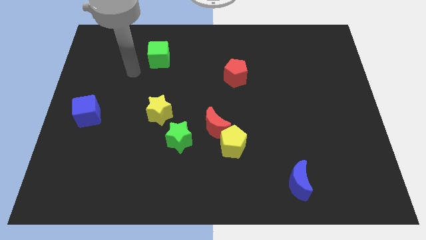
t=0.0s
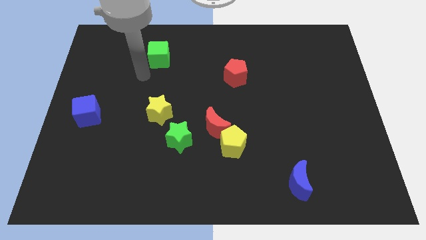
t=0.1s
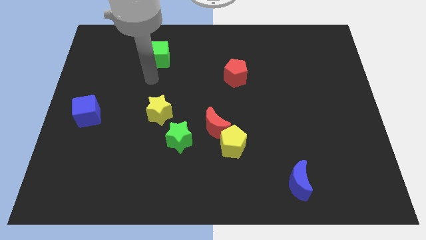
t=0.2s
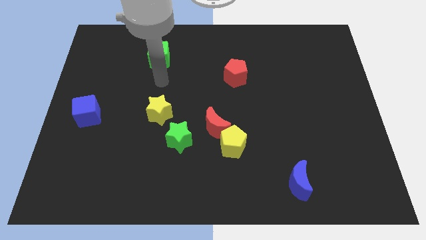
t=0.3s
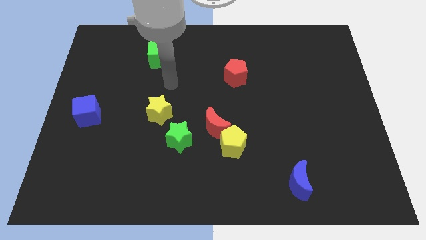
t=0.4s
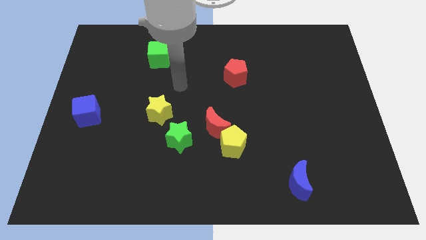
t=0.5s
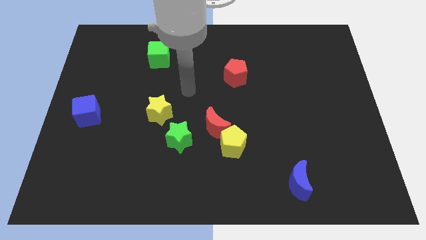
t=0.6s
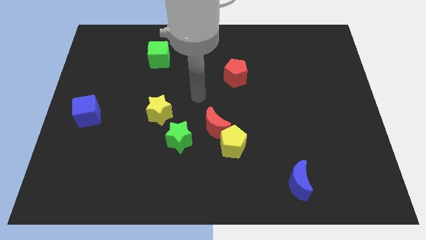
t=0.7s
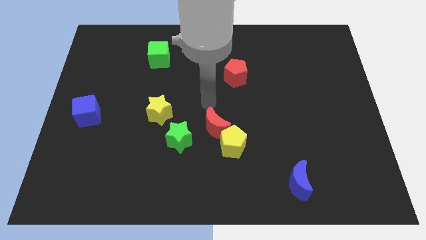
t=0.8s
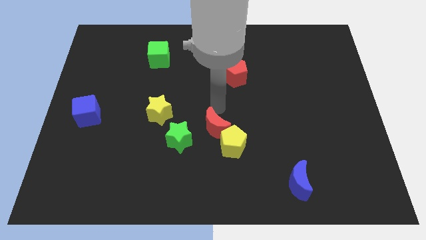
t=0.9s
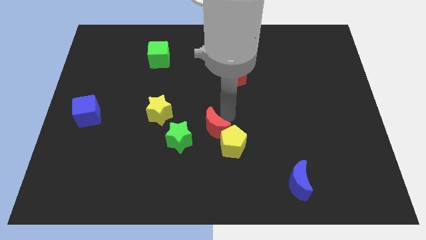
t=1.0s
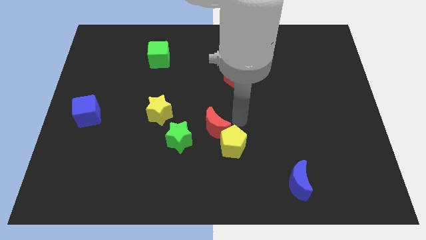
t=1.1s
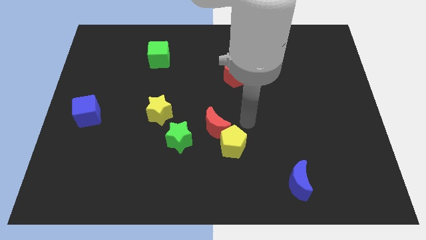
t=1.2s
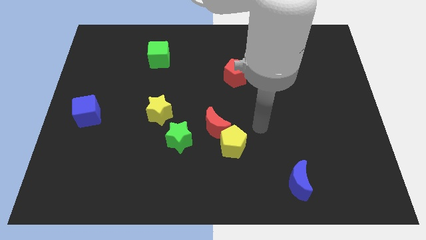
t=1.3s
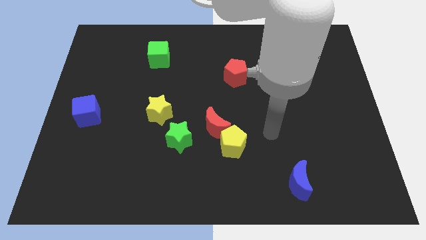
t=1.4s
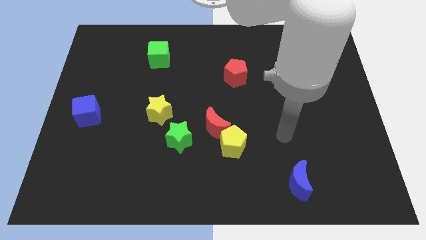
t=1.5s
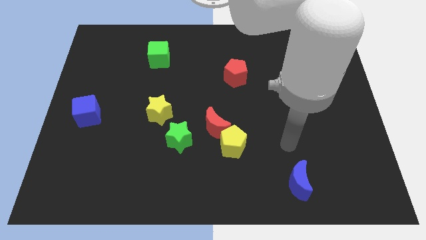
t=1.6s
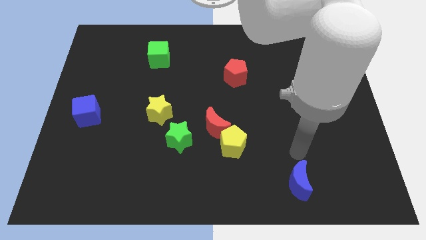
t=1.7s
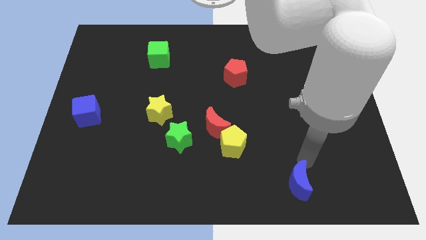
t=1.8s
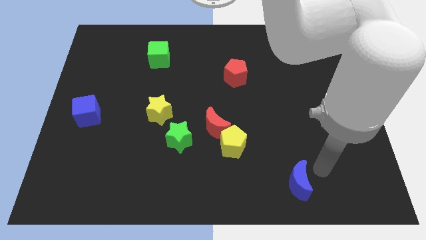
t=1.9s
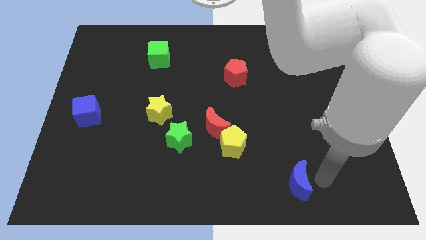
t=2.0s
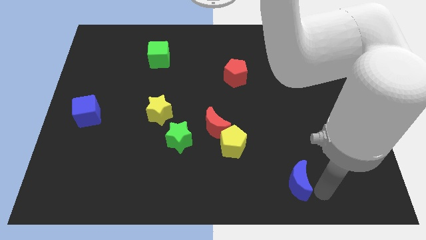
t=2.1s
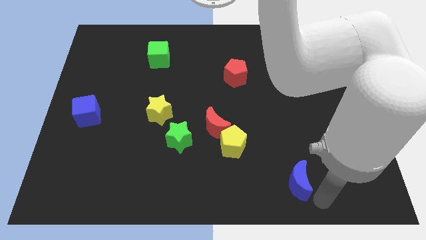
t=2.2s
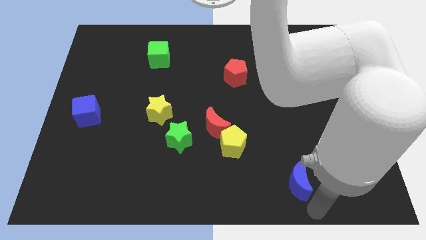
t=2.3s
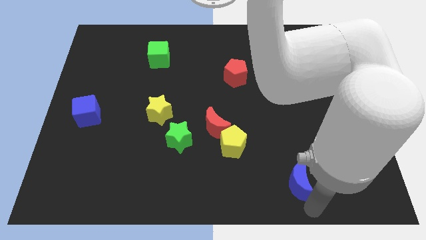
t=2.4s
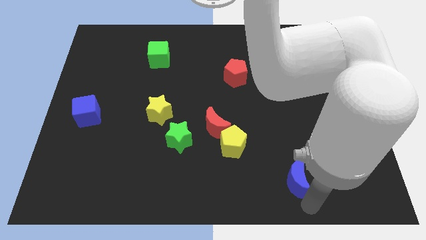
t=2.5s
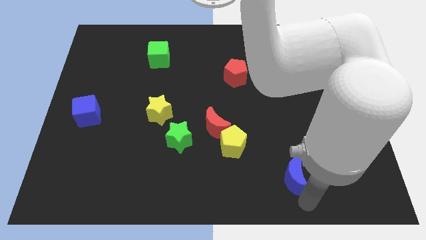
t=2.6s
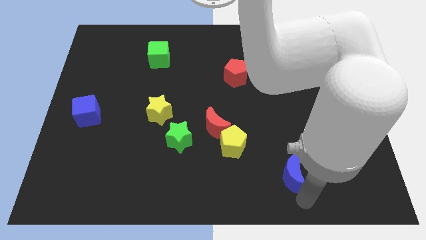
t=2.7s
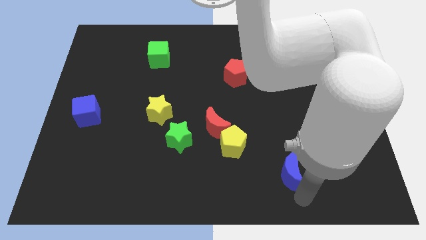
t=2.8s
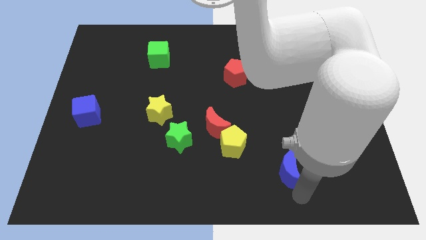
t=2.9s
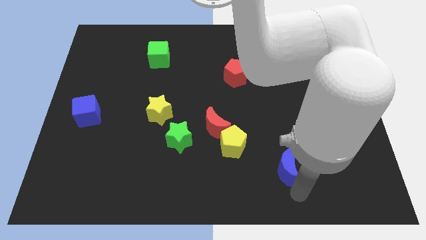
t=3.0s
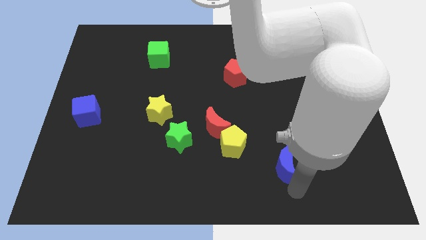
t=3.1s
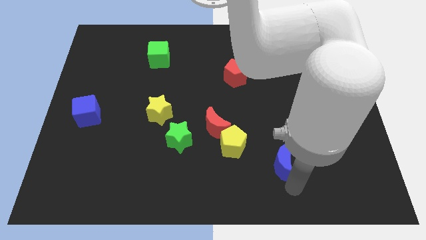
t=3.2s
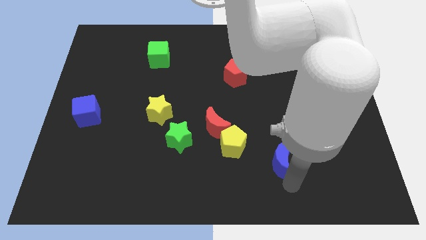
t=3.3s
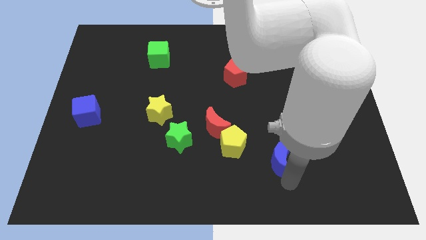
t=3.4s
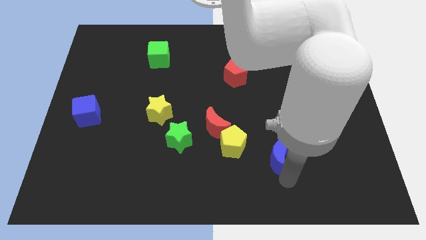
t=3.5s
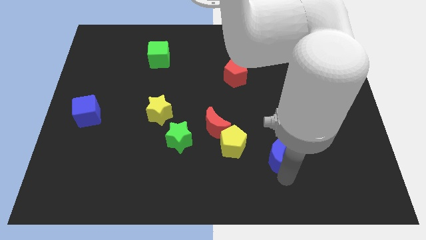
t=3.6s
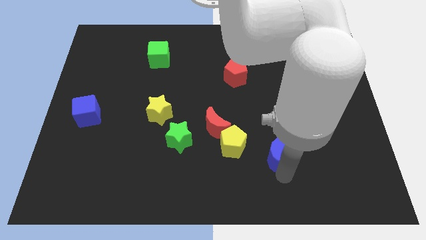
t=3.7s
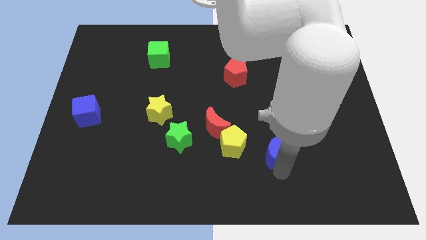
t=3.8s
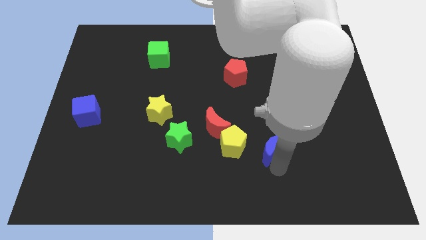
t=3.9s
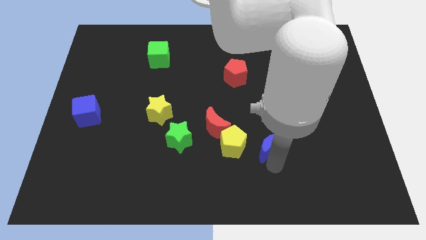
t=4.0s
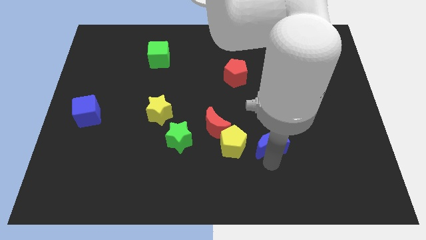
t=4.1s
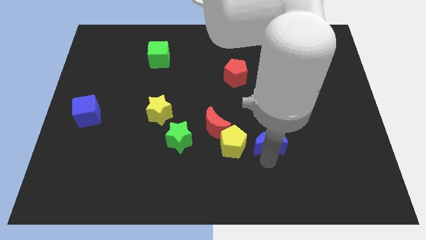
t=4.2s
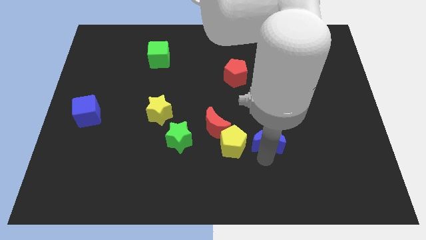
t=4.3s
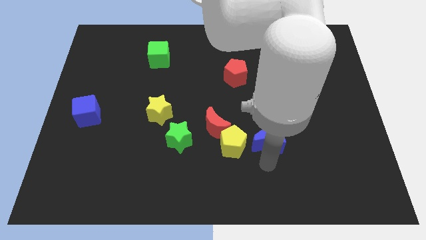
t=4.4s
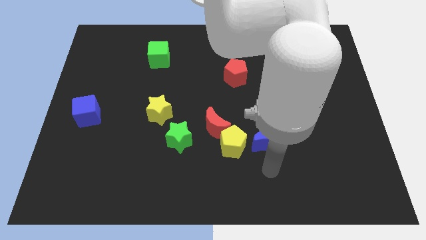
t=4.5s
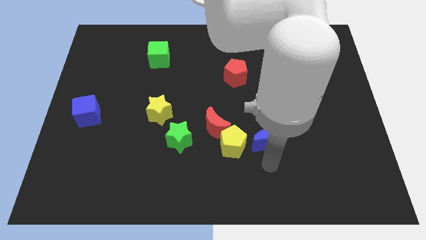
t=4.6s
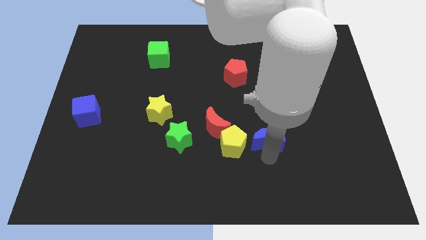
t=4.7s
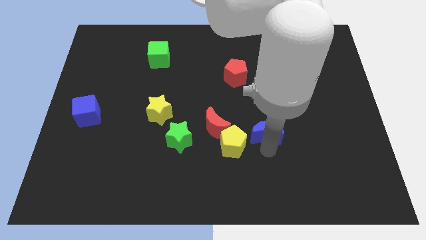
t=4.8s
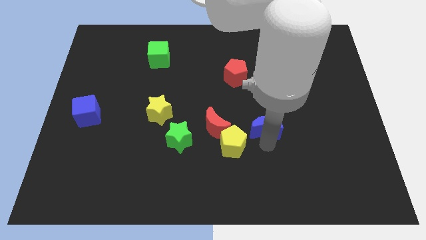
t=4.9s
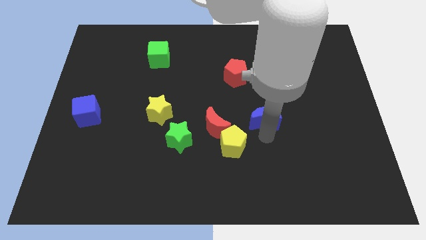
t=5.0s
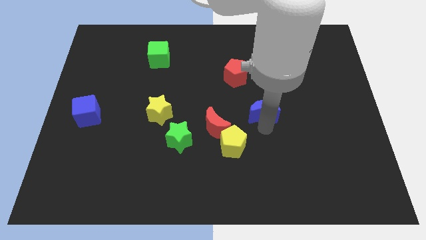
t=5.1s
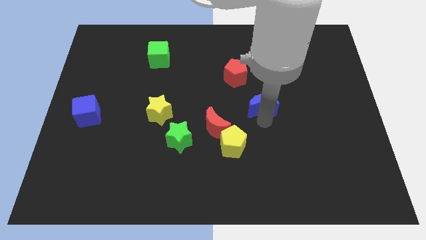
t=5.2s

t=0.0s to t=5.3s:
push the blue moon diagonally down and to the right of the red pentagon

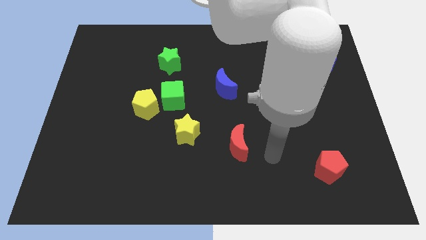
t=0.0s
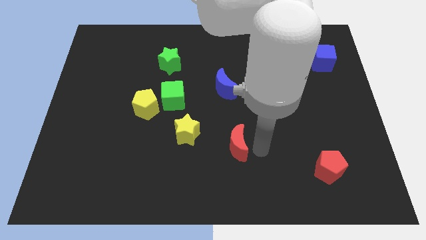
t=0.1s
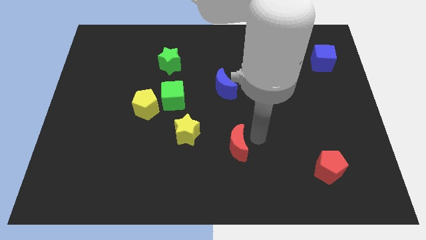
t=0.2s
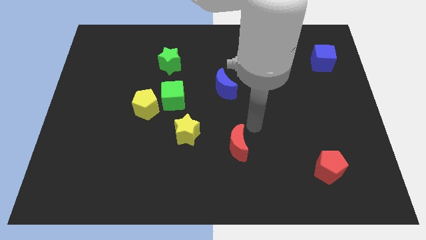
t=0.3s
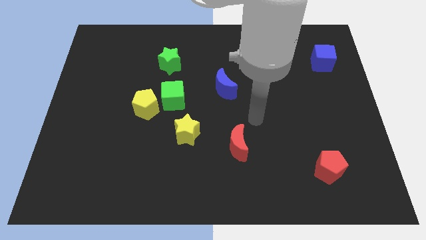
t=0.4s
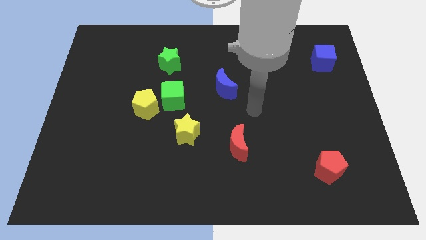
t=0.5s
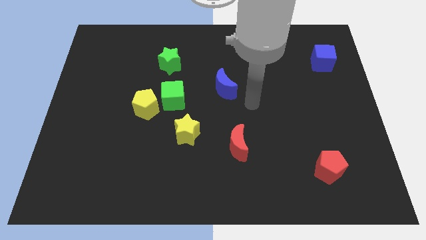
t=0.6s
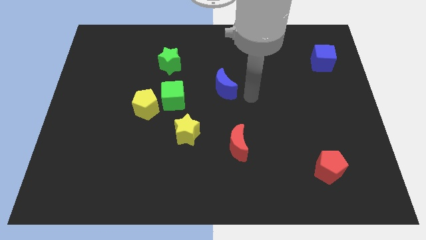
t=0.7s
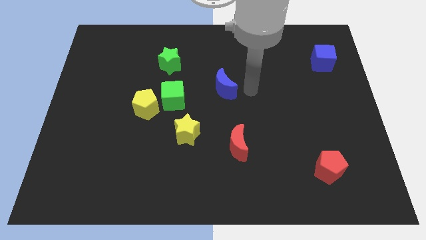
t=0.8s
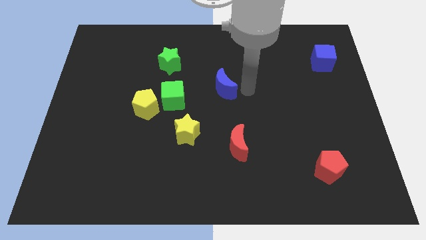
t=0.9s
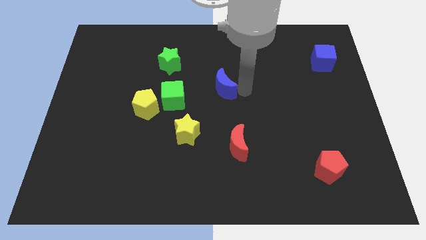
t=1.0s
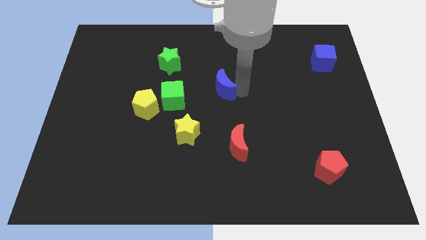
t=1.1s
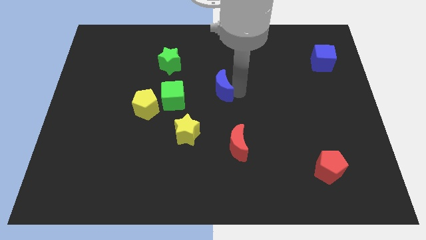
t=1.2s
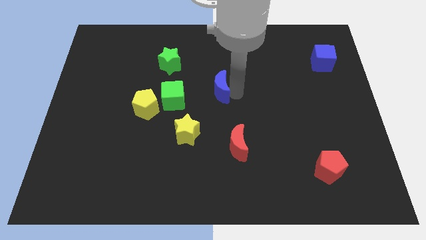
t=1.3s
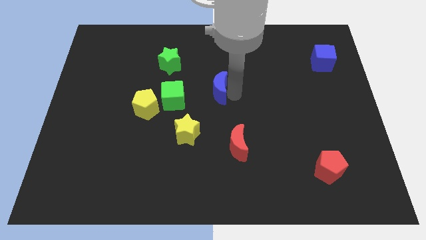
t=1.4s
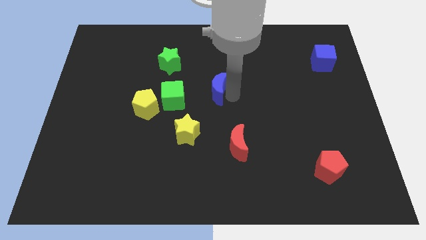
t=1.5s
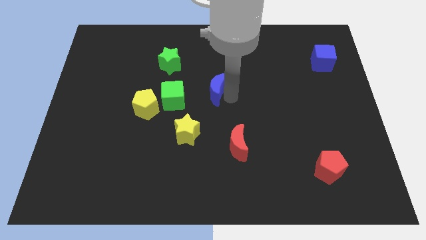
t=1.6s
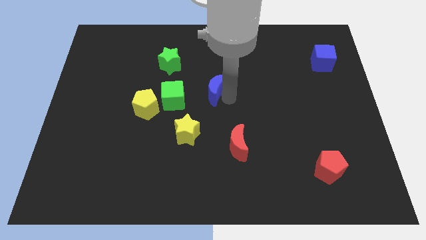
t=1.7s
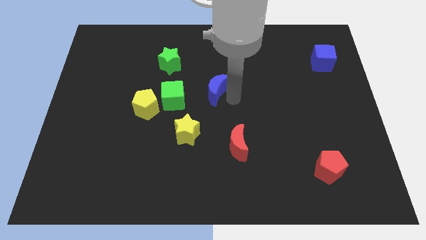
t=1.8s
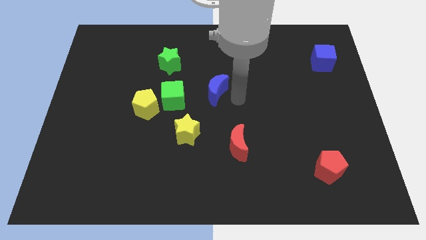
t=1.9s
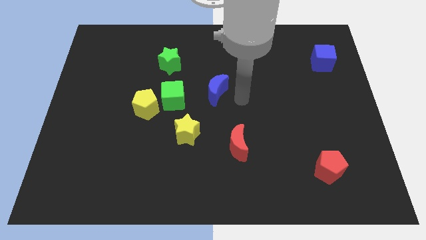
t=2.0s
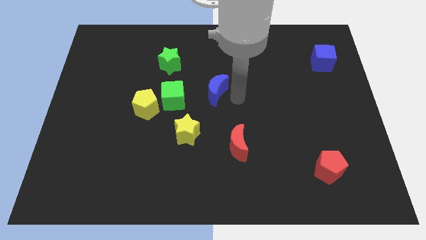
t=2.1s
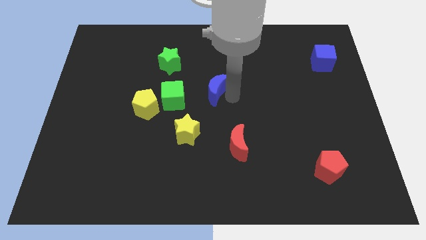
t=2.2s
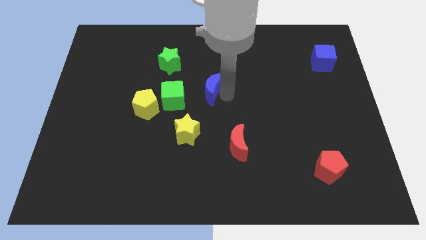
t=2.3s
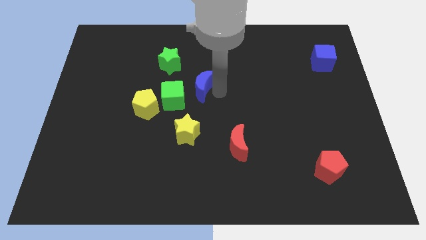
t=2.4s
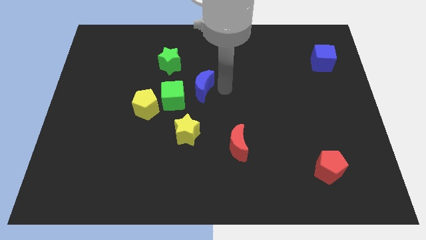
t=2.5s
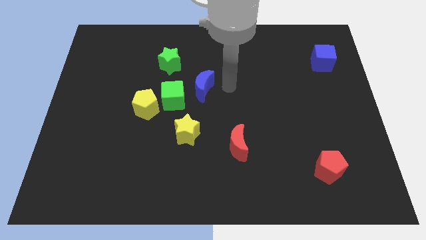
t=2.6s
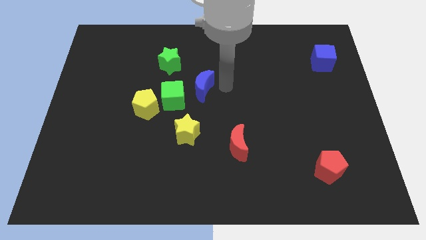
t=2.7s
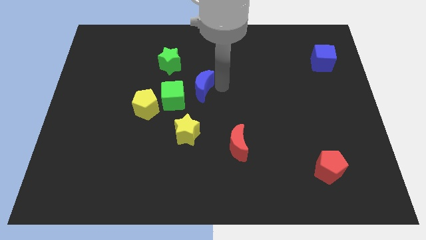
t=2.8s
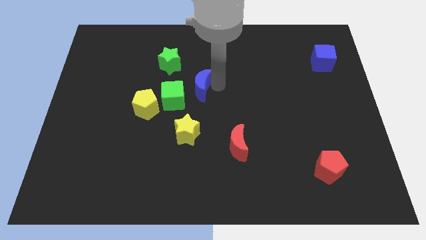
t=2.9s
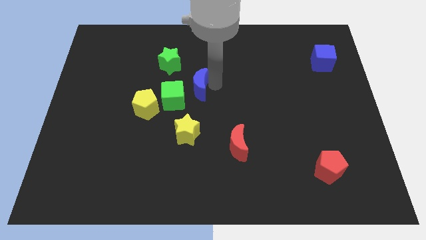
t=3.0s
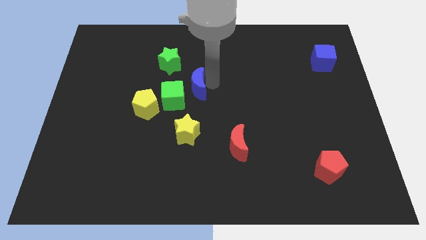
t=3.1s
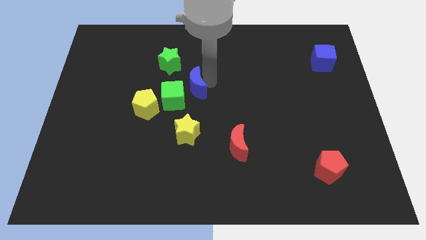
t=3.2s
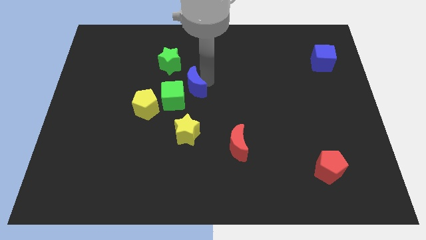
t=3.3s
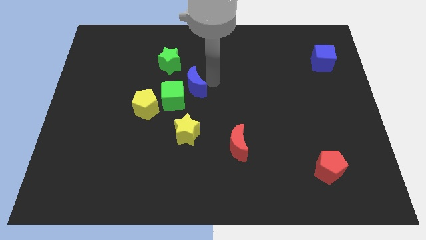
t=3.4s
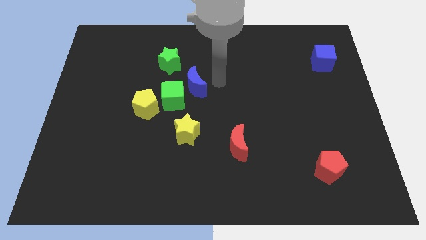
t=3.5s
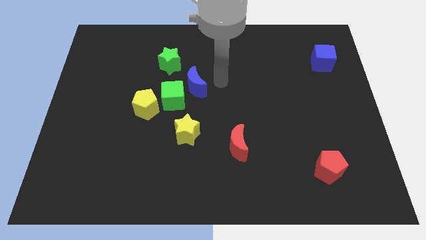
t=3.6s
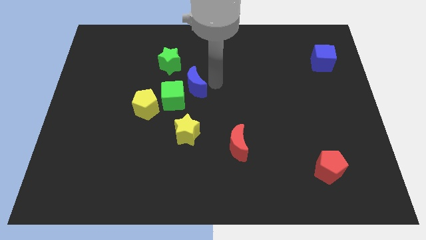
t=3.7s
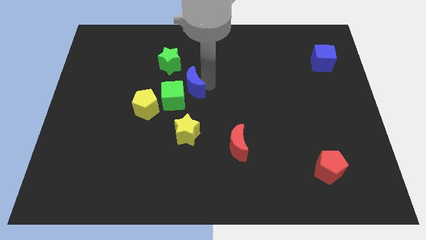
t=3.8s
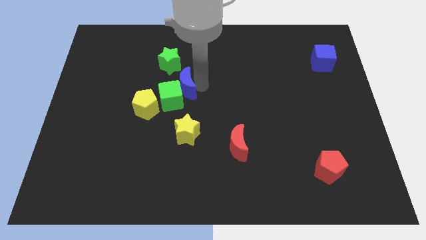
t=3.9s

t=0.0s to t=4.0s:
slide the blue moon to the top right side of the yellow pentagon
